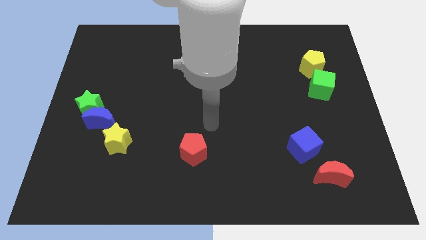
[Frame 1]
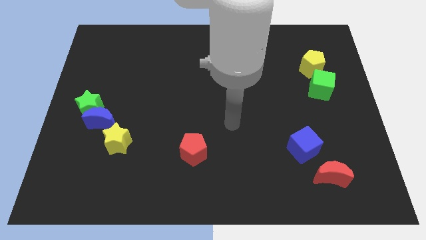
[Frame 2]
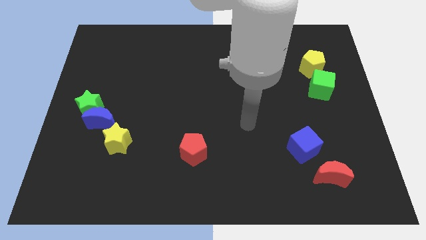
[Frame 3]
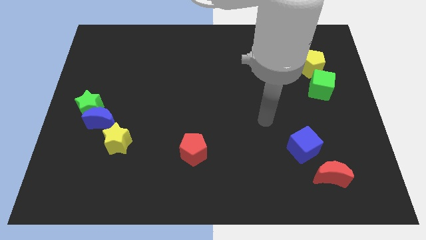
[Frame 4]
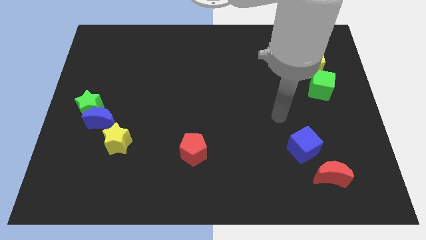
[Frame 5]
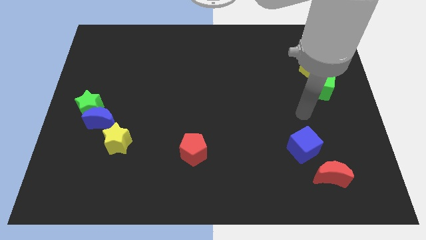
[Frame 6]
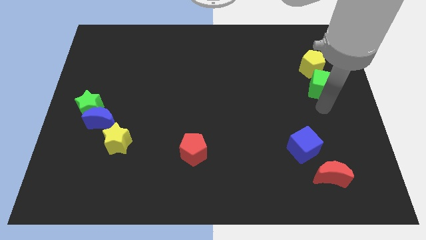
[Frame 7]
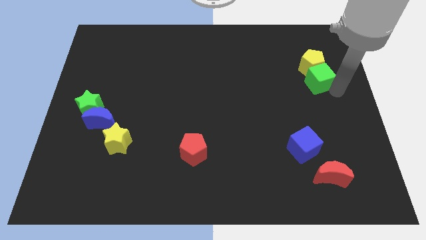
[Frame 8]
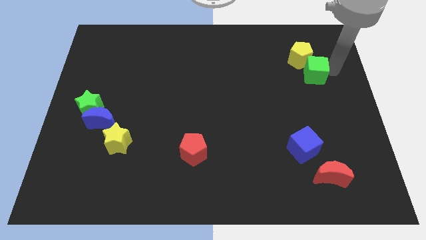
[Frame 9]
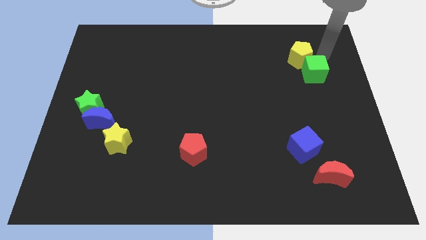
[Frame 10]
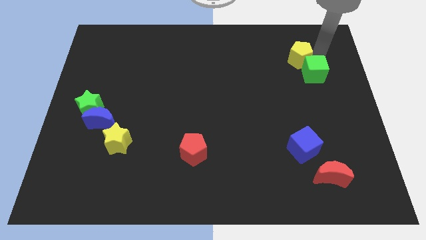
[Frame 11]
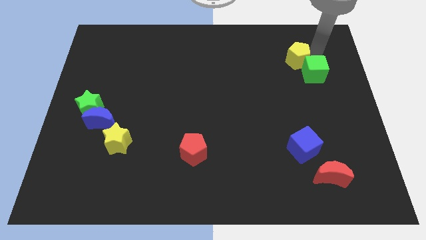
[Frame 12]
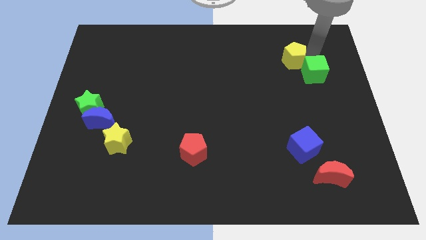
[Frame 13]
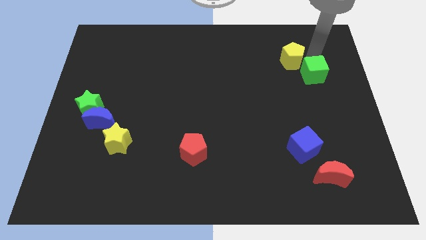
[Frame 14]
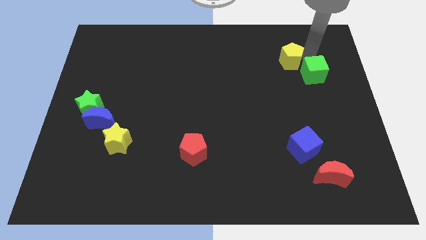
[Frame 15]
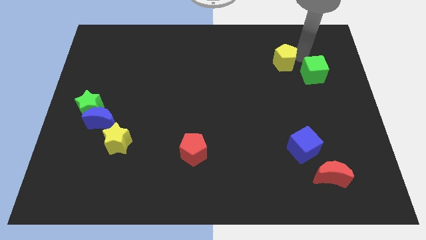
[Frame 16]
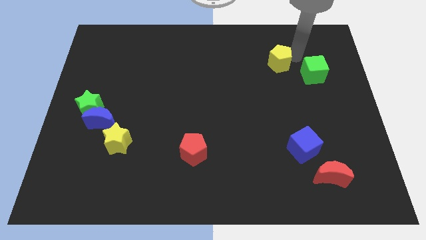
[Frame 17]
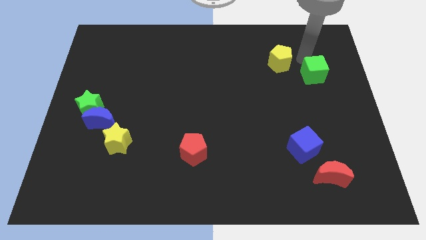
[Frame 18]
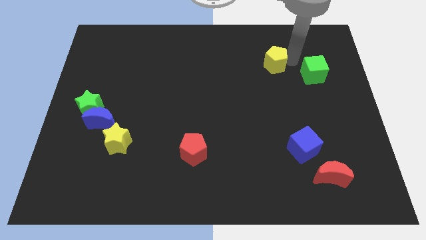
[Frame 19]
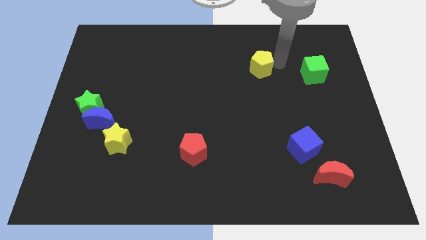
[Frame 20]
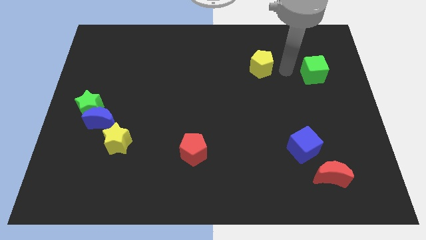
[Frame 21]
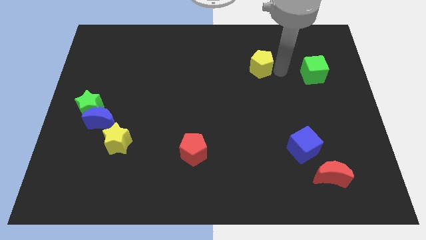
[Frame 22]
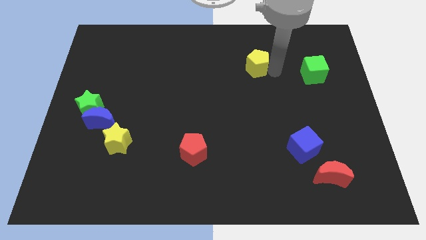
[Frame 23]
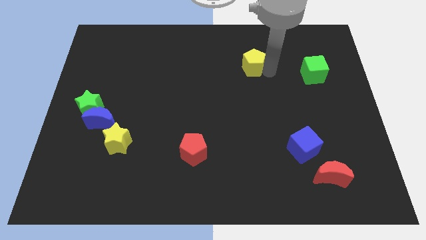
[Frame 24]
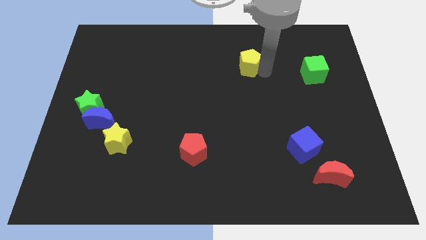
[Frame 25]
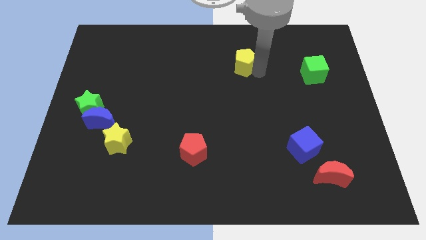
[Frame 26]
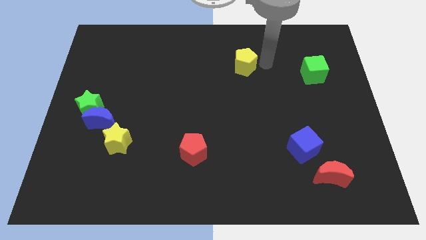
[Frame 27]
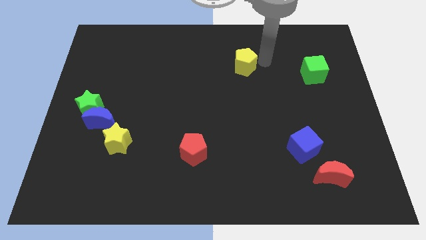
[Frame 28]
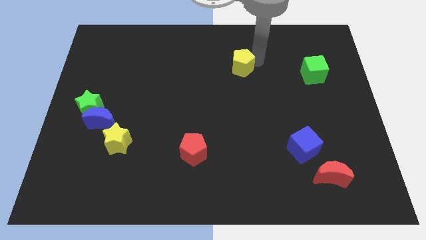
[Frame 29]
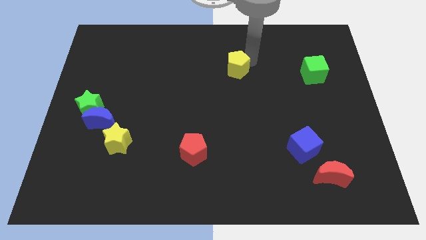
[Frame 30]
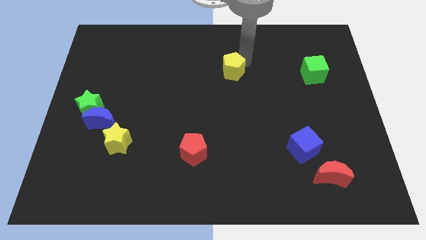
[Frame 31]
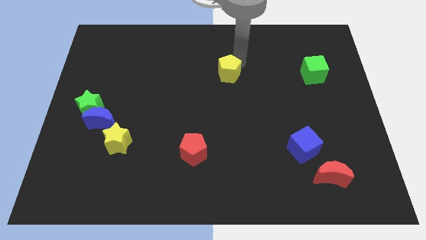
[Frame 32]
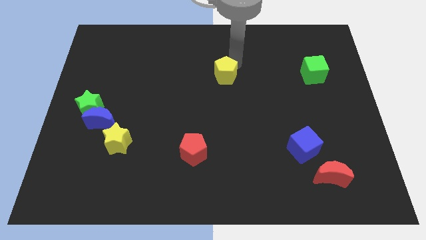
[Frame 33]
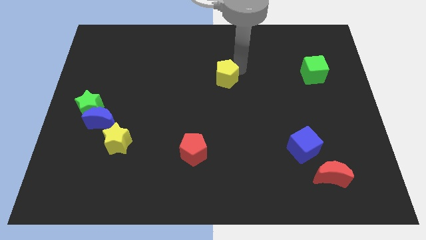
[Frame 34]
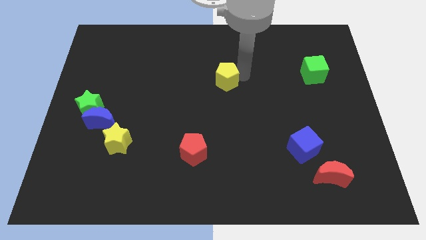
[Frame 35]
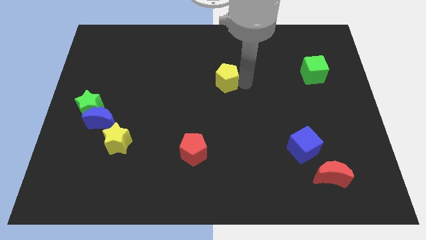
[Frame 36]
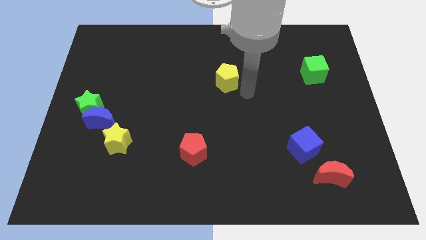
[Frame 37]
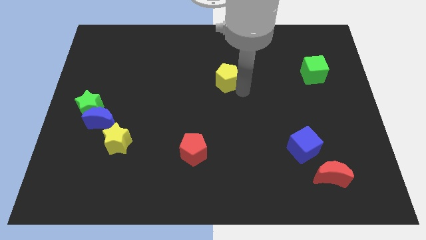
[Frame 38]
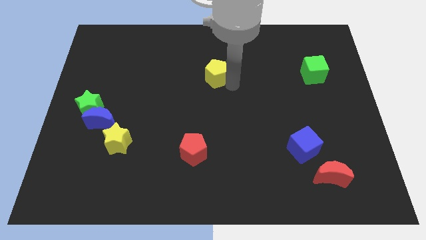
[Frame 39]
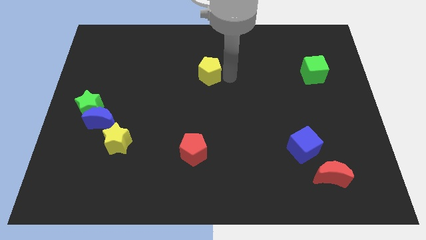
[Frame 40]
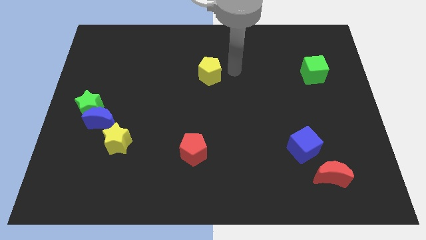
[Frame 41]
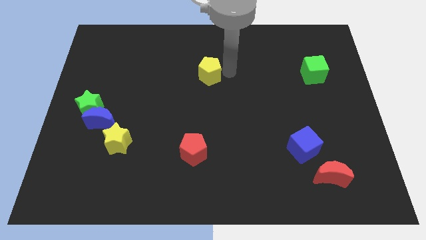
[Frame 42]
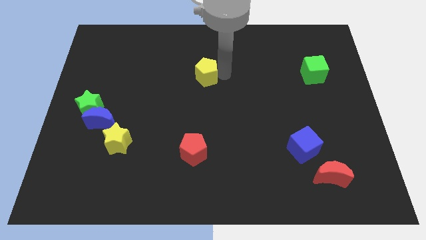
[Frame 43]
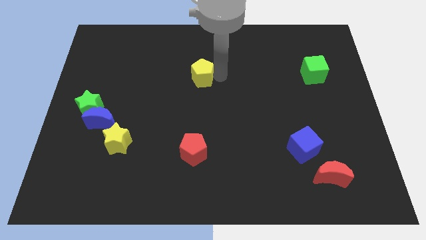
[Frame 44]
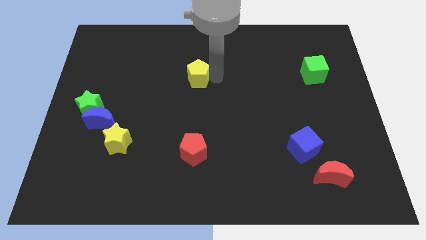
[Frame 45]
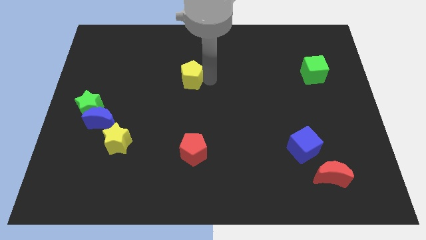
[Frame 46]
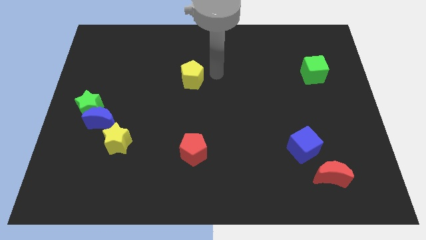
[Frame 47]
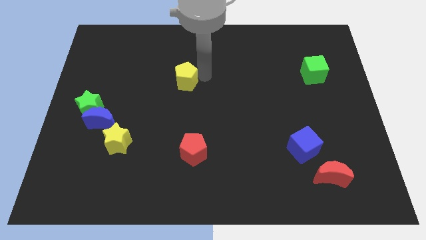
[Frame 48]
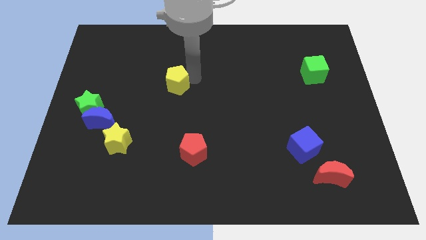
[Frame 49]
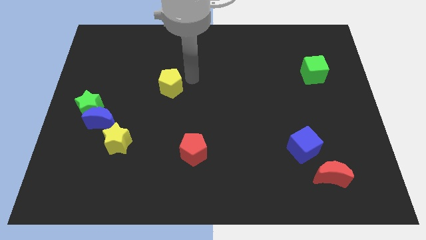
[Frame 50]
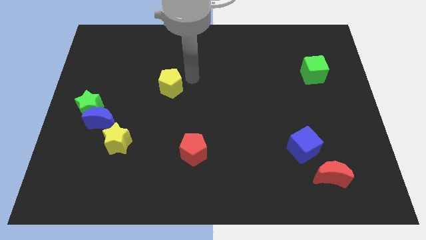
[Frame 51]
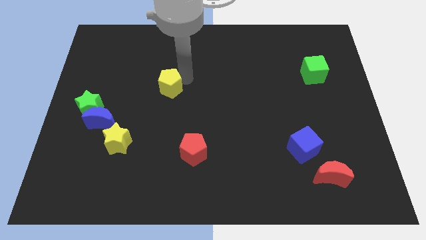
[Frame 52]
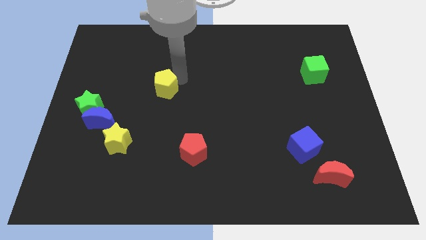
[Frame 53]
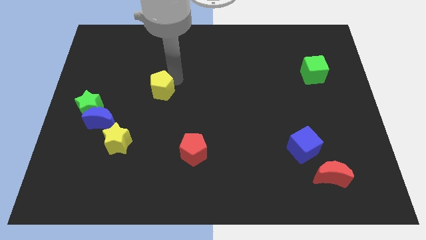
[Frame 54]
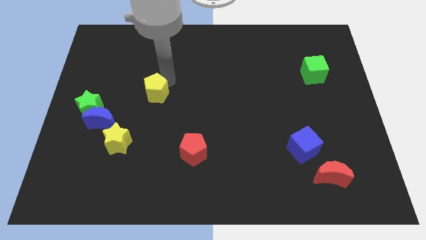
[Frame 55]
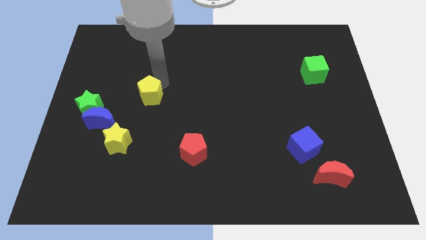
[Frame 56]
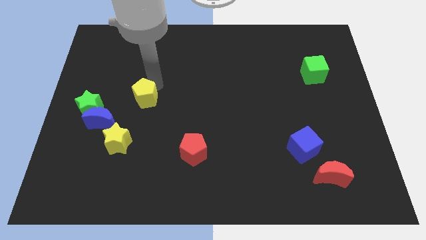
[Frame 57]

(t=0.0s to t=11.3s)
move the yellow pentagon to the top side of the yellow star

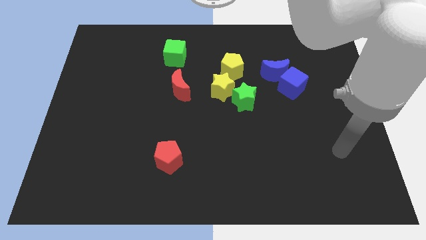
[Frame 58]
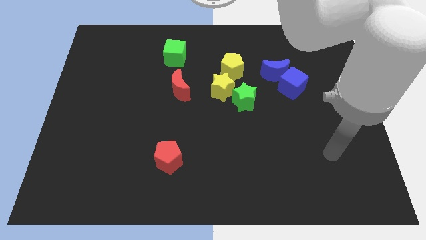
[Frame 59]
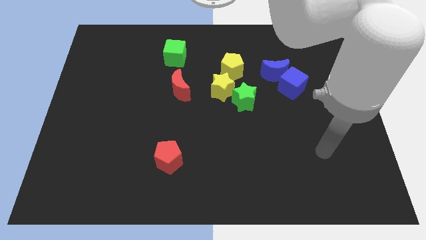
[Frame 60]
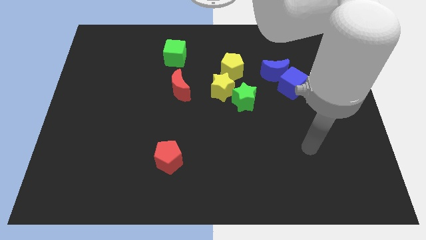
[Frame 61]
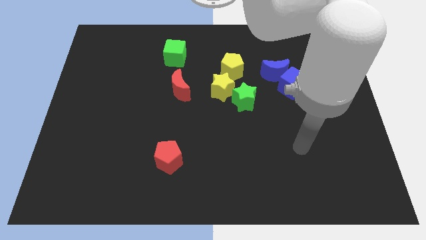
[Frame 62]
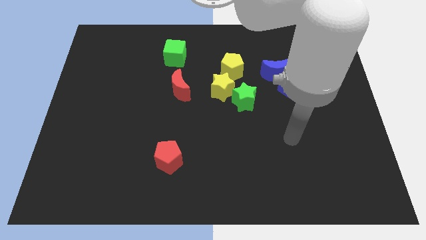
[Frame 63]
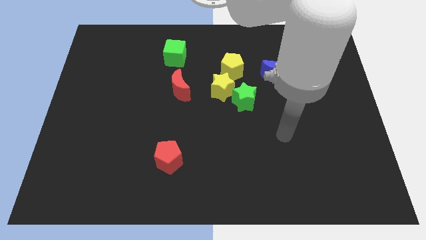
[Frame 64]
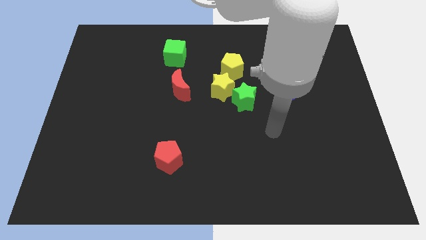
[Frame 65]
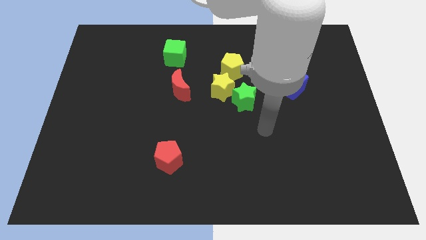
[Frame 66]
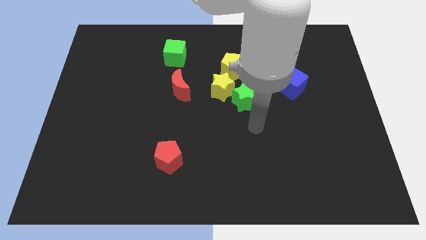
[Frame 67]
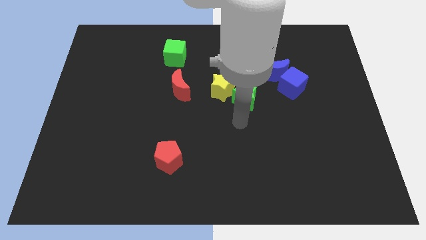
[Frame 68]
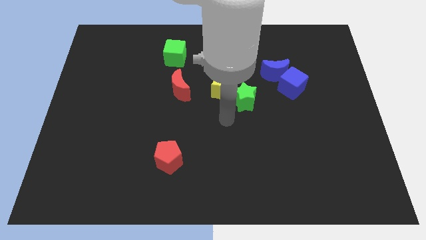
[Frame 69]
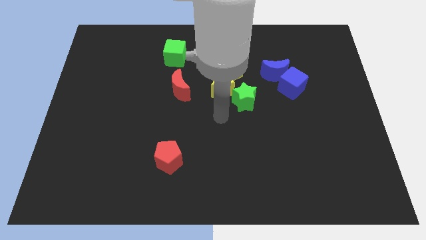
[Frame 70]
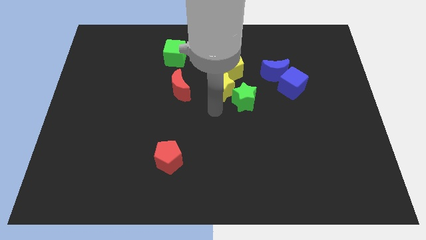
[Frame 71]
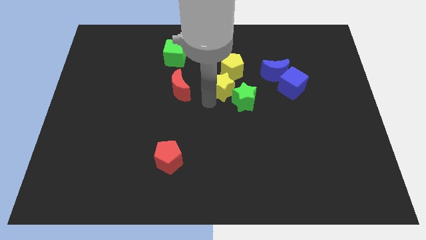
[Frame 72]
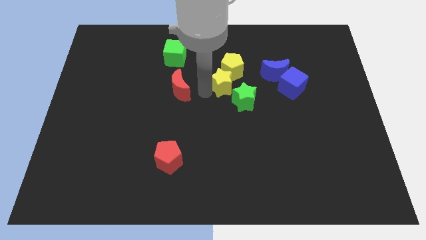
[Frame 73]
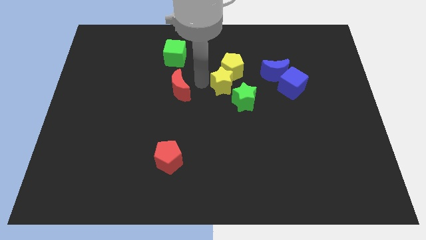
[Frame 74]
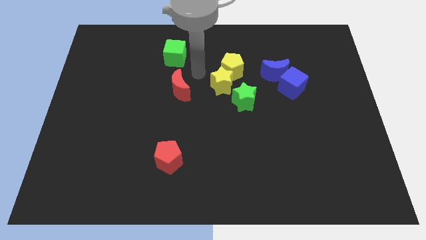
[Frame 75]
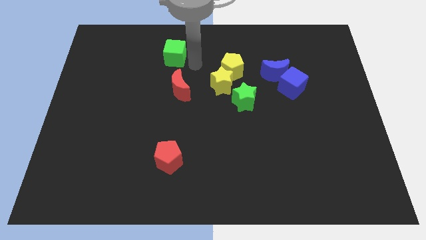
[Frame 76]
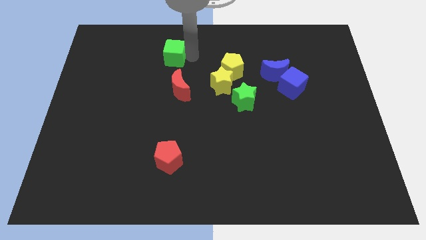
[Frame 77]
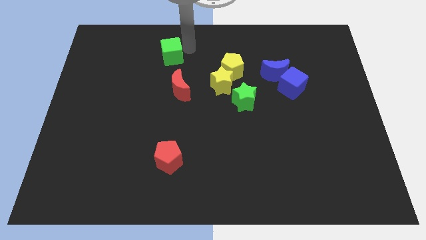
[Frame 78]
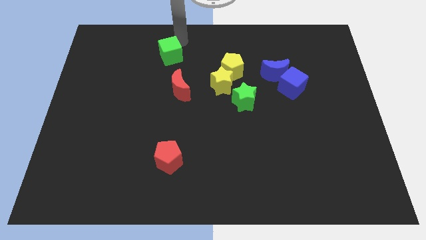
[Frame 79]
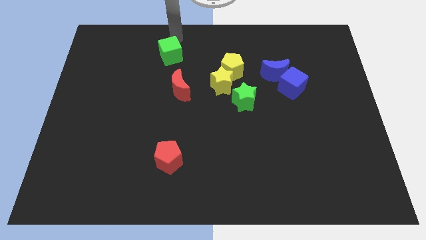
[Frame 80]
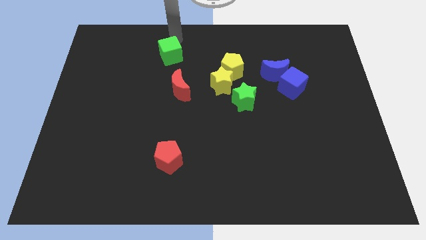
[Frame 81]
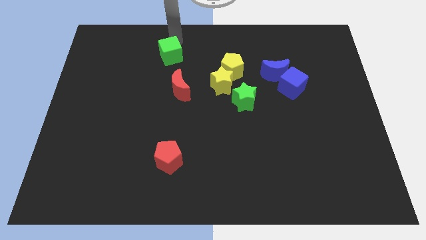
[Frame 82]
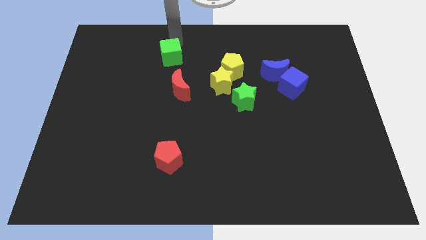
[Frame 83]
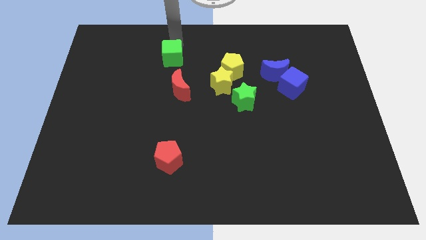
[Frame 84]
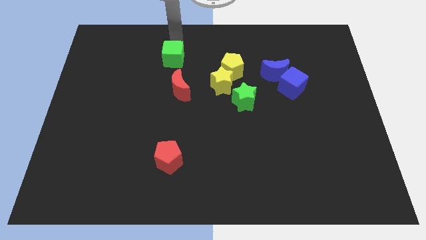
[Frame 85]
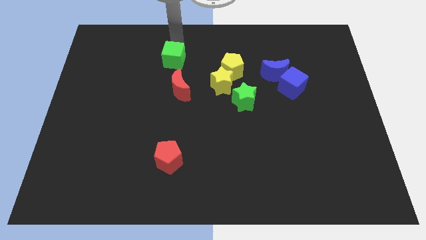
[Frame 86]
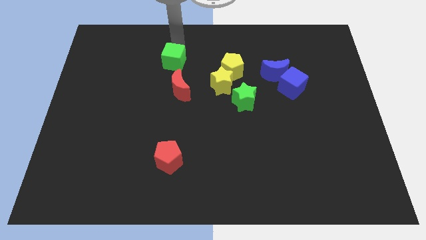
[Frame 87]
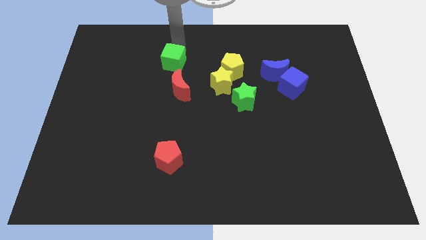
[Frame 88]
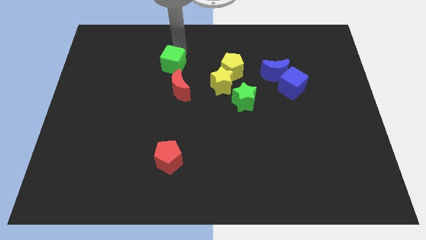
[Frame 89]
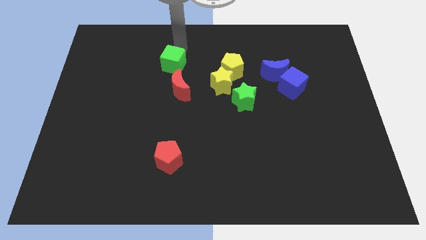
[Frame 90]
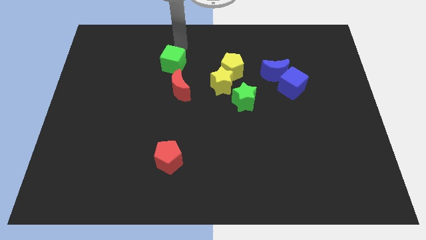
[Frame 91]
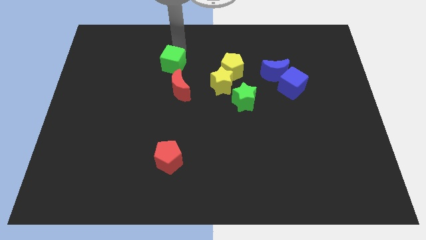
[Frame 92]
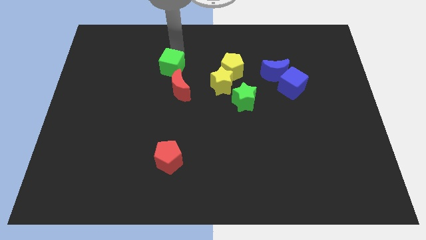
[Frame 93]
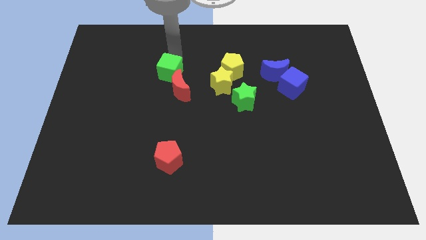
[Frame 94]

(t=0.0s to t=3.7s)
slide the green cube just left of the yellow star
